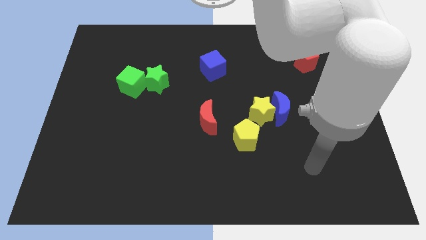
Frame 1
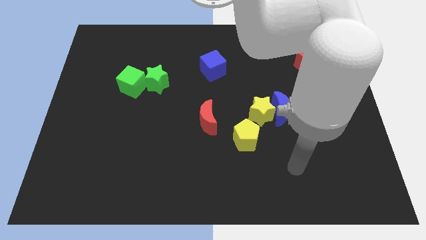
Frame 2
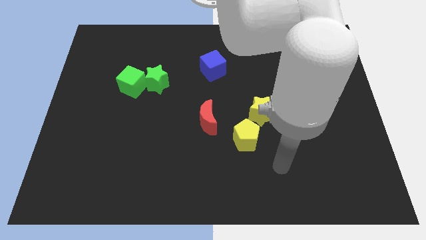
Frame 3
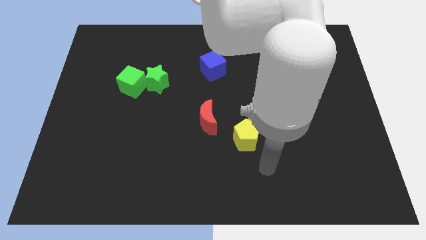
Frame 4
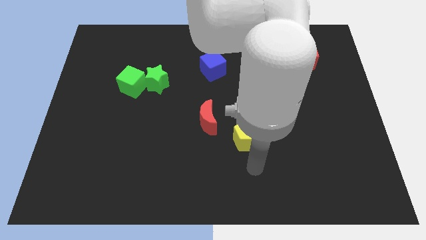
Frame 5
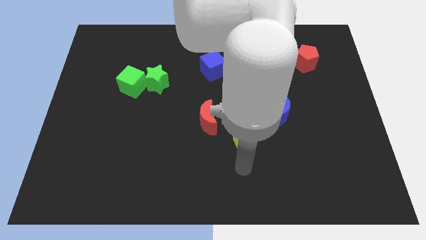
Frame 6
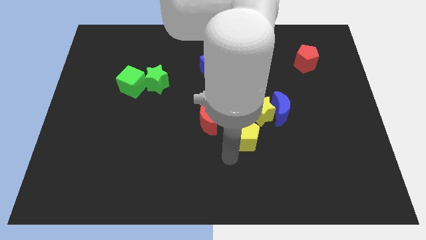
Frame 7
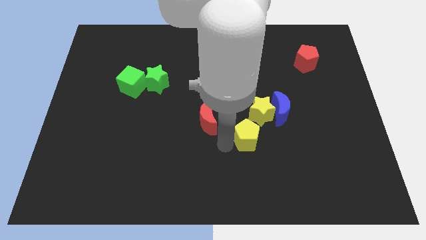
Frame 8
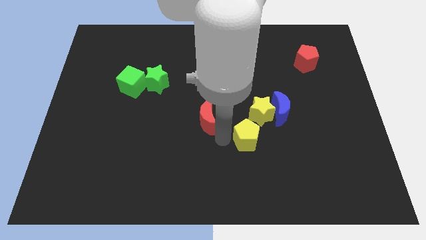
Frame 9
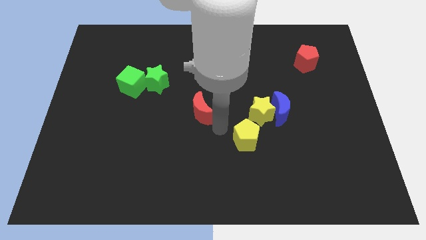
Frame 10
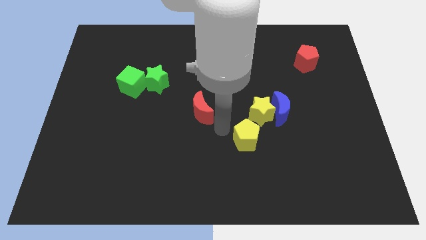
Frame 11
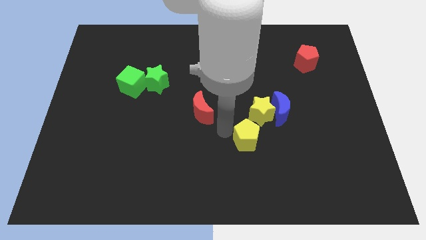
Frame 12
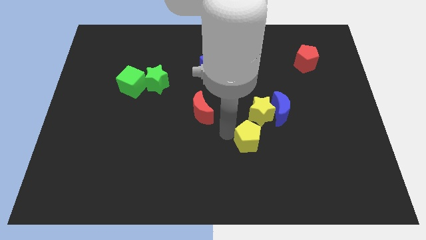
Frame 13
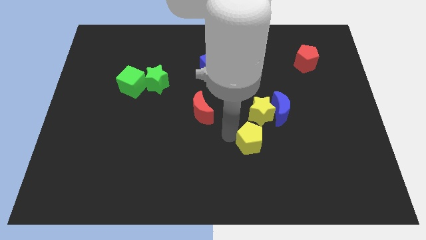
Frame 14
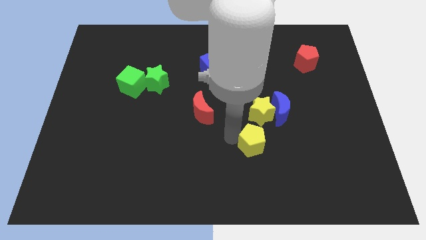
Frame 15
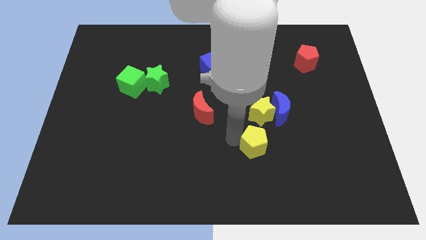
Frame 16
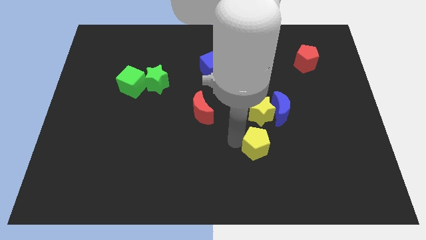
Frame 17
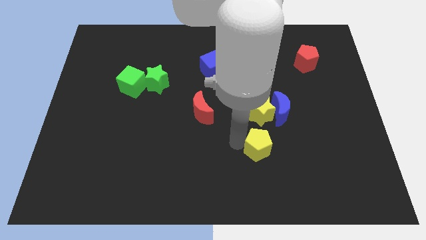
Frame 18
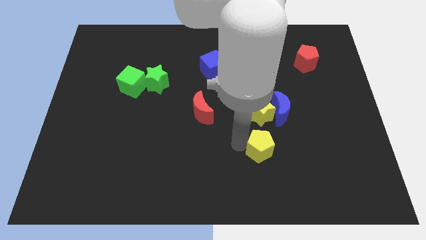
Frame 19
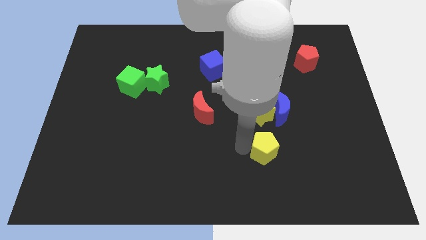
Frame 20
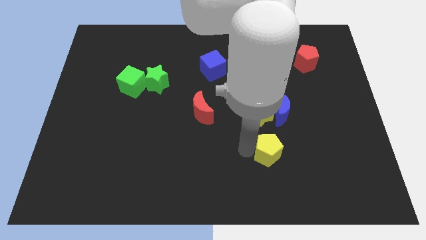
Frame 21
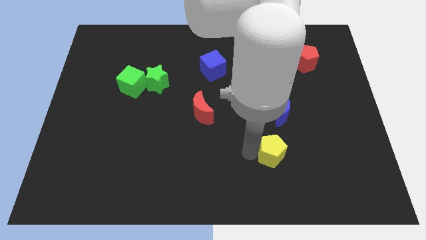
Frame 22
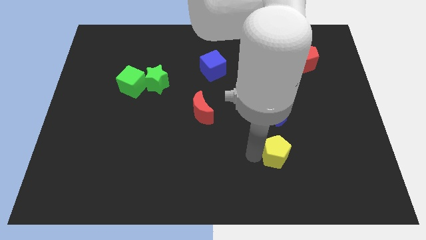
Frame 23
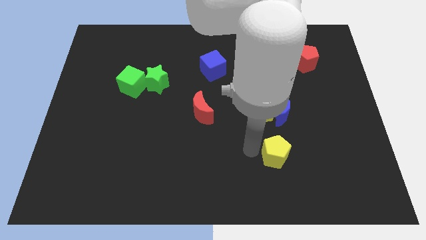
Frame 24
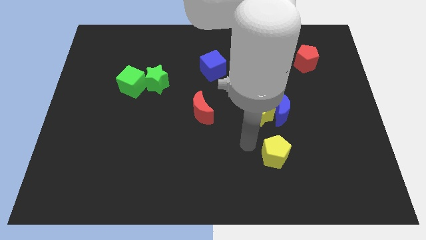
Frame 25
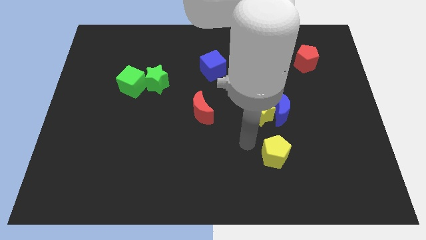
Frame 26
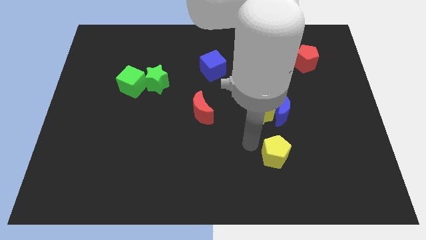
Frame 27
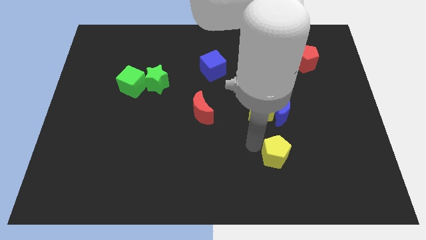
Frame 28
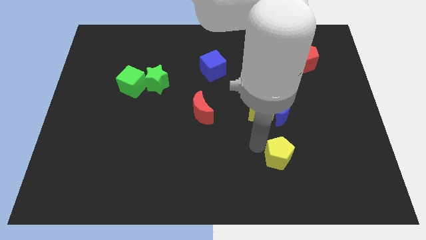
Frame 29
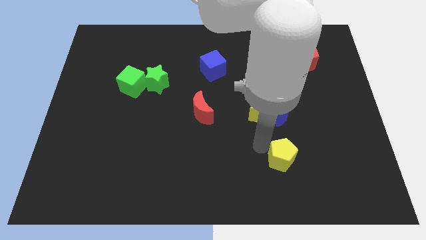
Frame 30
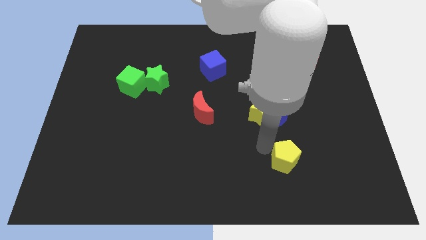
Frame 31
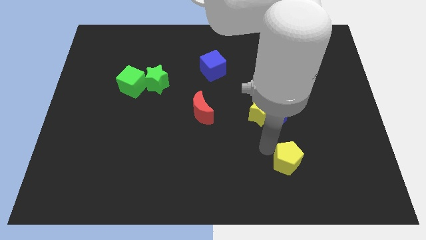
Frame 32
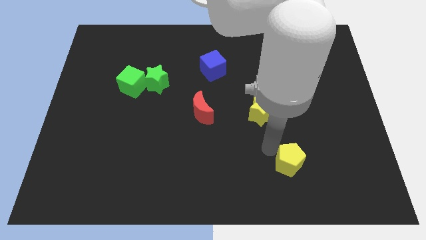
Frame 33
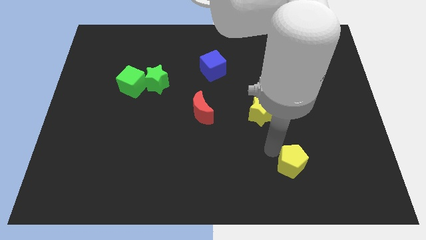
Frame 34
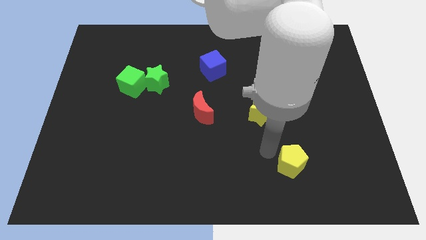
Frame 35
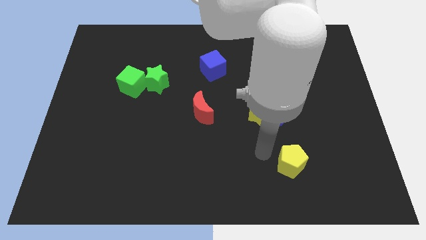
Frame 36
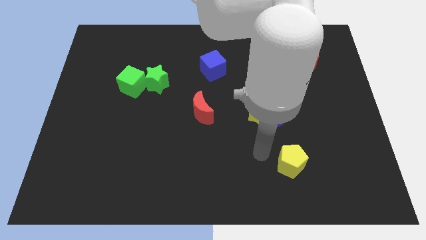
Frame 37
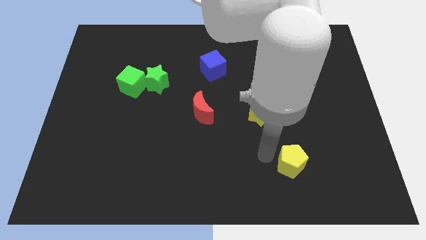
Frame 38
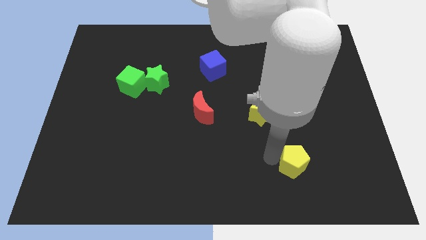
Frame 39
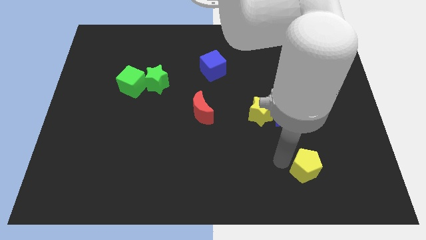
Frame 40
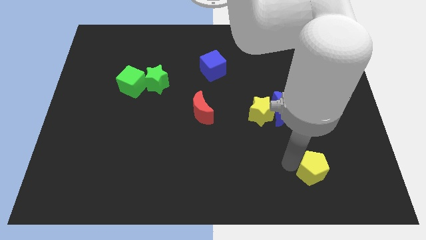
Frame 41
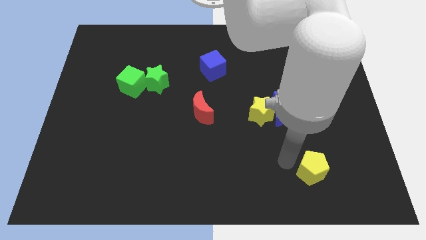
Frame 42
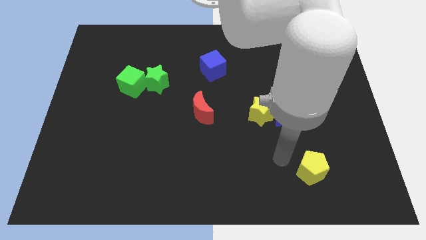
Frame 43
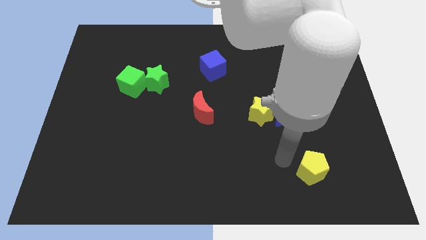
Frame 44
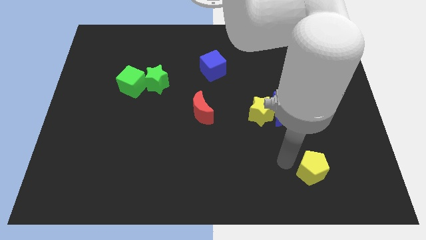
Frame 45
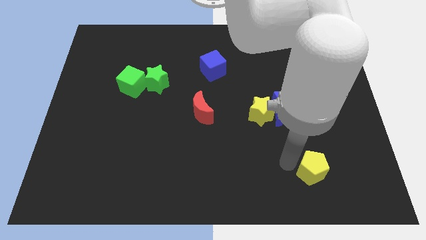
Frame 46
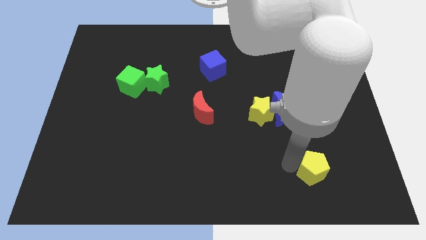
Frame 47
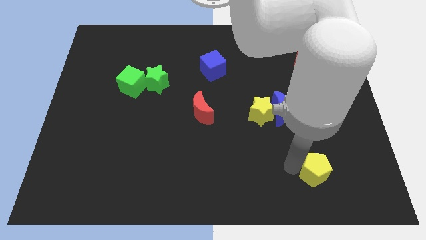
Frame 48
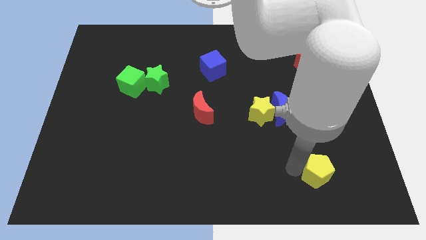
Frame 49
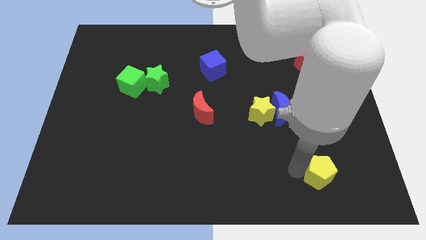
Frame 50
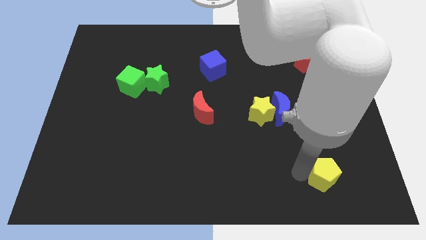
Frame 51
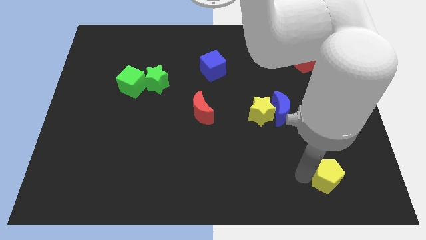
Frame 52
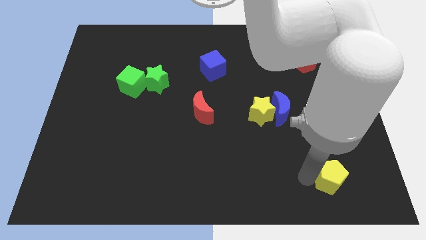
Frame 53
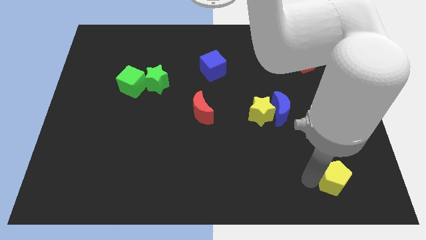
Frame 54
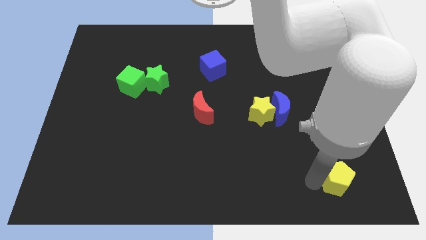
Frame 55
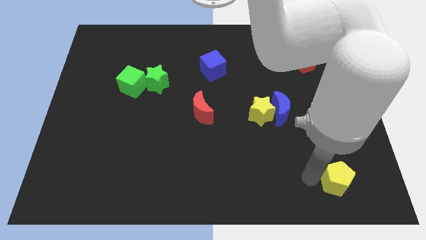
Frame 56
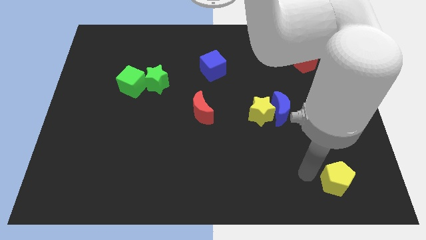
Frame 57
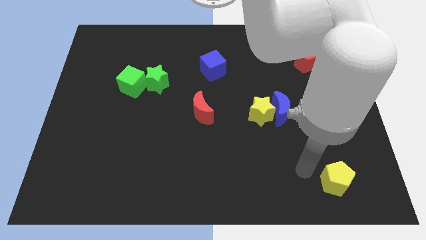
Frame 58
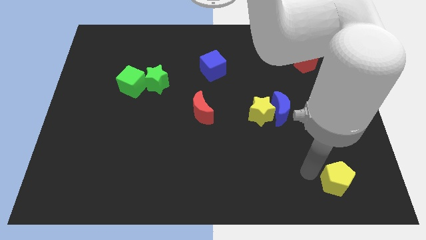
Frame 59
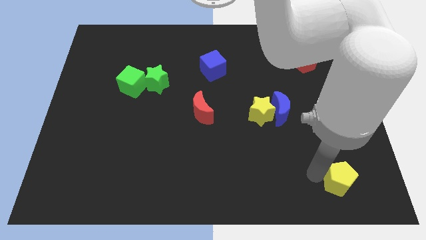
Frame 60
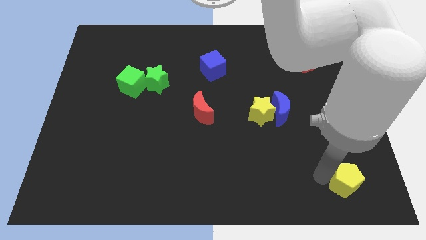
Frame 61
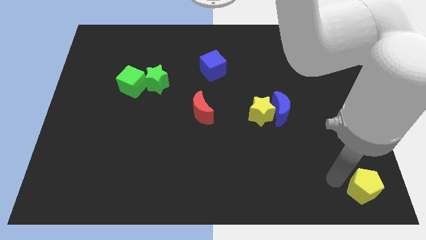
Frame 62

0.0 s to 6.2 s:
put the yellow pentagon to the bottom right of the board
